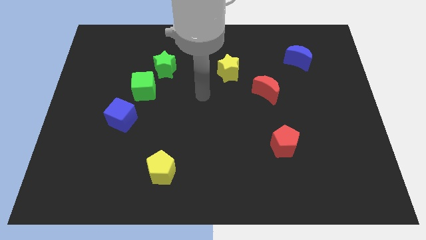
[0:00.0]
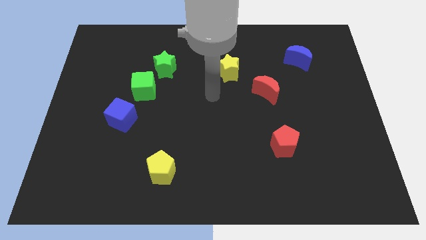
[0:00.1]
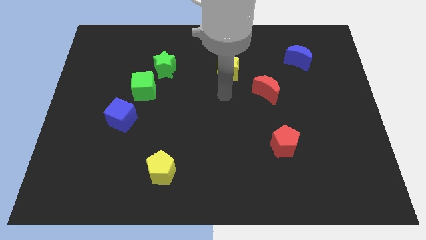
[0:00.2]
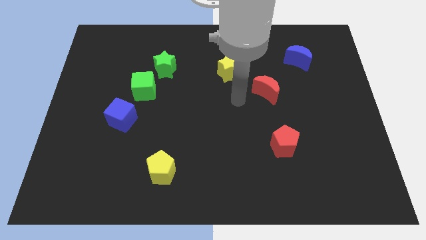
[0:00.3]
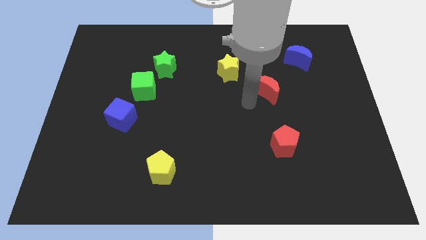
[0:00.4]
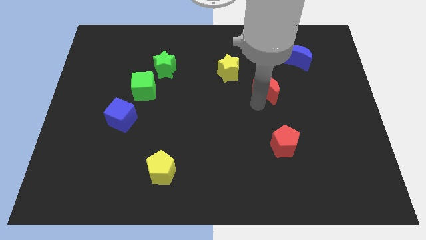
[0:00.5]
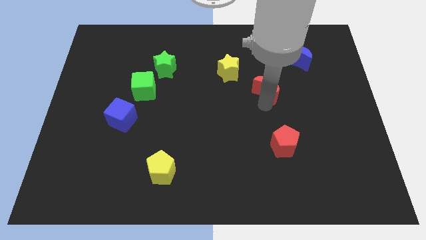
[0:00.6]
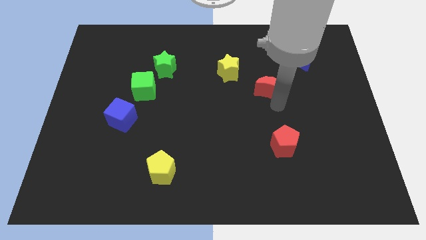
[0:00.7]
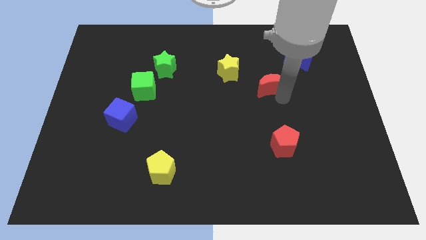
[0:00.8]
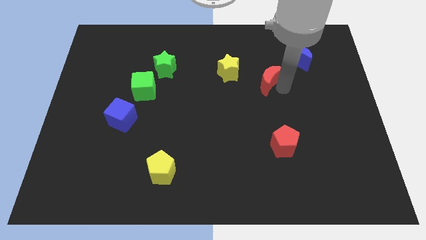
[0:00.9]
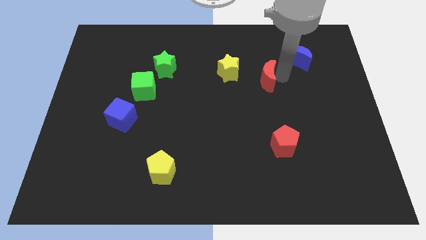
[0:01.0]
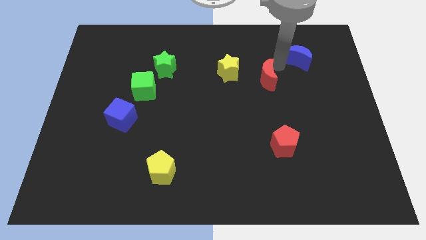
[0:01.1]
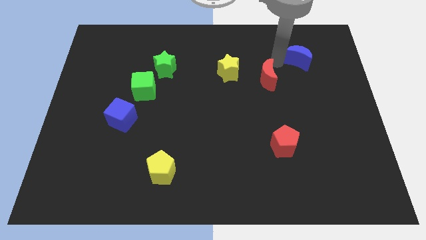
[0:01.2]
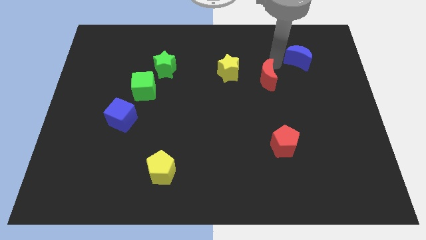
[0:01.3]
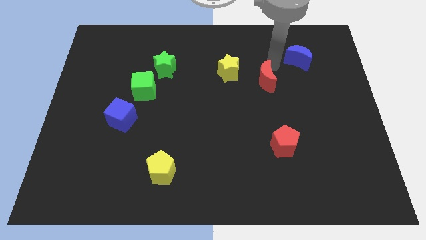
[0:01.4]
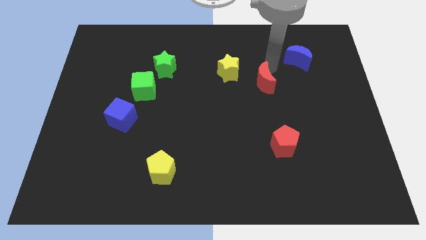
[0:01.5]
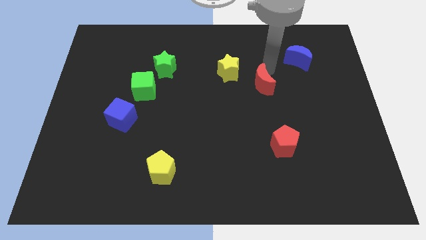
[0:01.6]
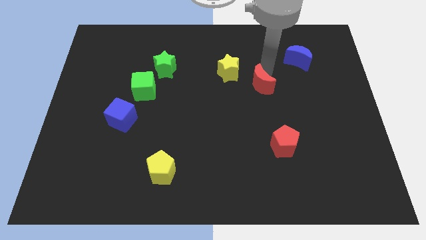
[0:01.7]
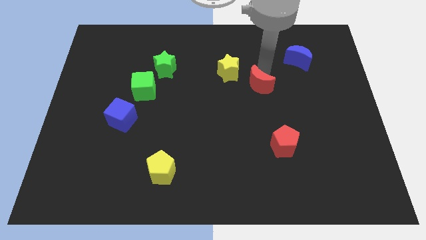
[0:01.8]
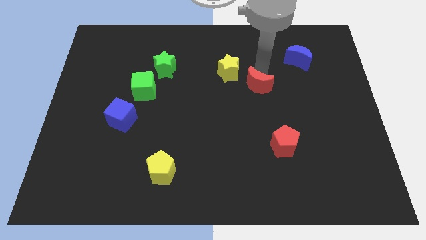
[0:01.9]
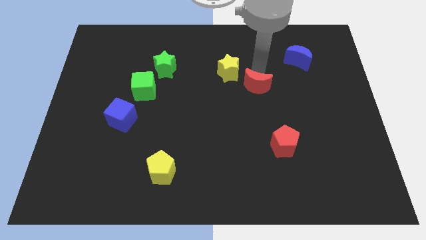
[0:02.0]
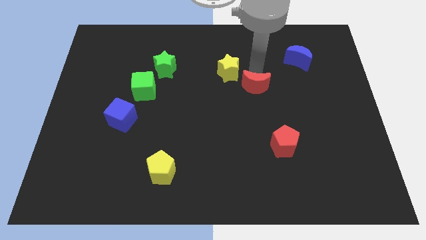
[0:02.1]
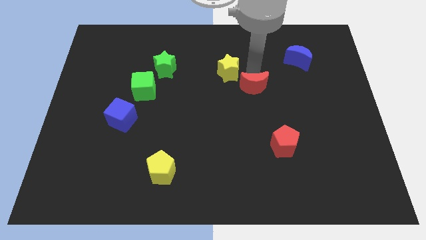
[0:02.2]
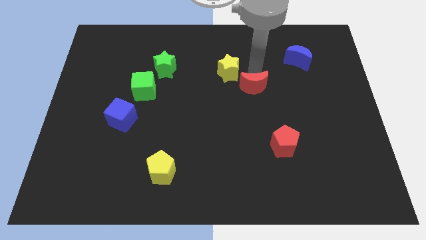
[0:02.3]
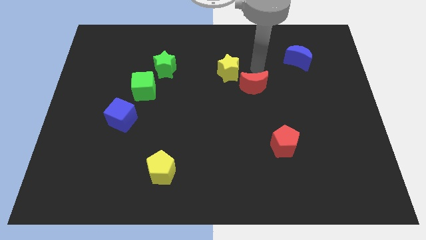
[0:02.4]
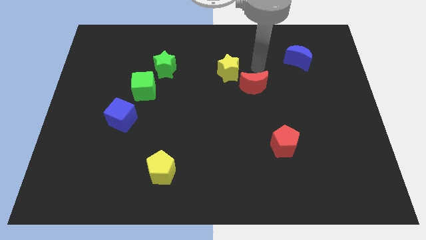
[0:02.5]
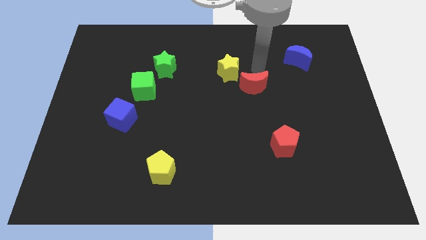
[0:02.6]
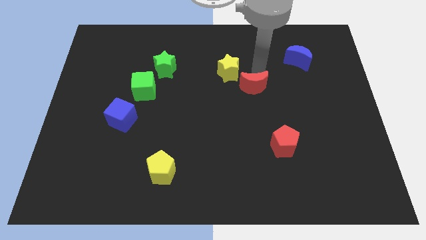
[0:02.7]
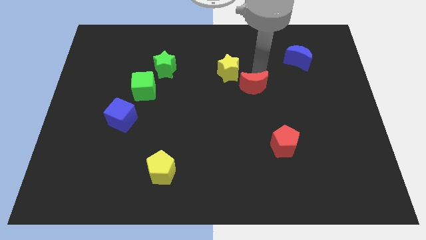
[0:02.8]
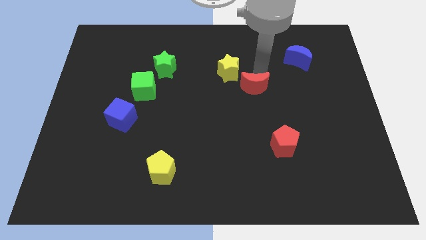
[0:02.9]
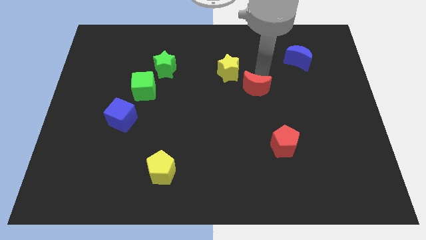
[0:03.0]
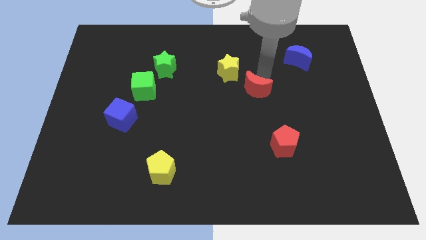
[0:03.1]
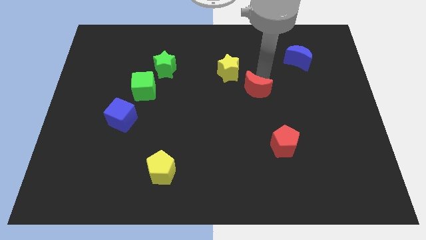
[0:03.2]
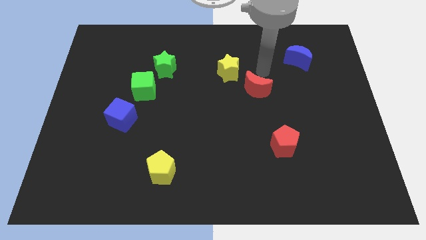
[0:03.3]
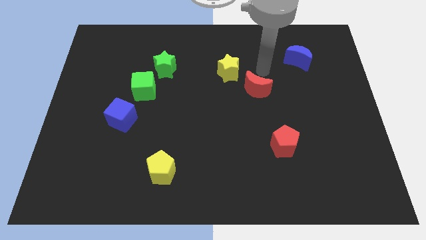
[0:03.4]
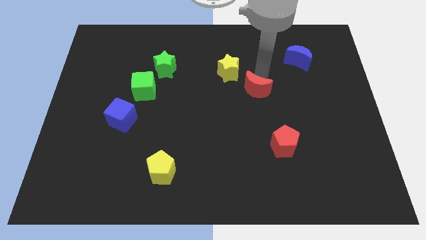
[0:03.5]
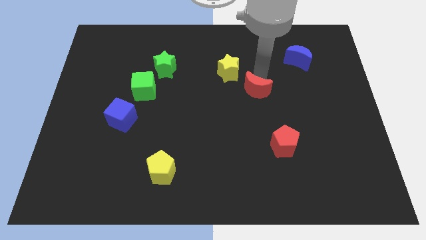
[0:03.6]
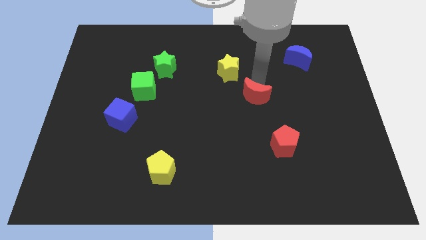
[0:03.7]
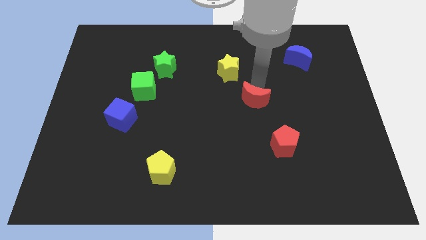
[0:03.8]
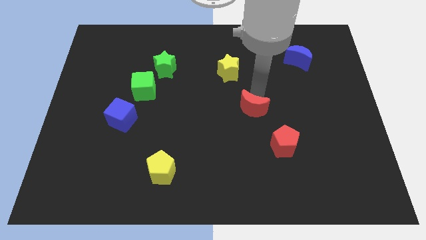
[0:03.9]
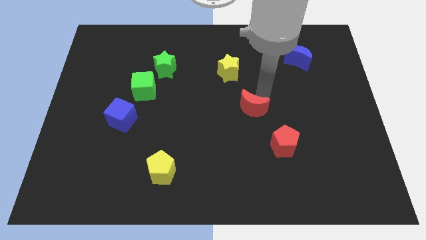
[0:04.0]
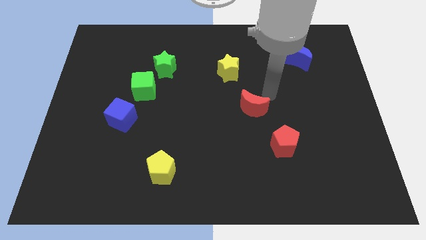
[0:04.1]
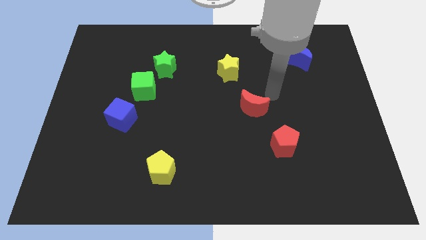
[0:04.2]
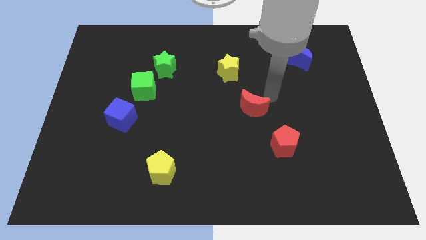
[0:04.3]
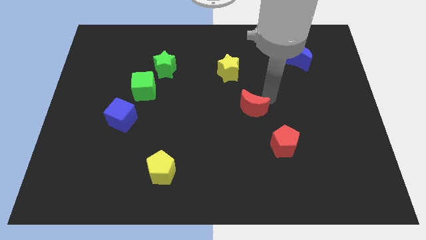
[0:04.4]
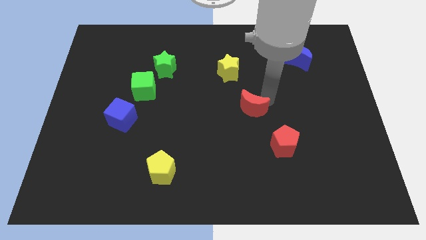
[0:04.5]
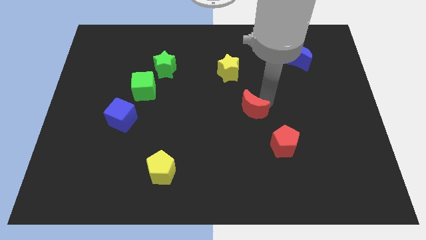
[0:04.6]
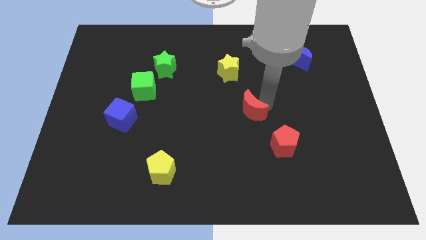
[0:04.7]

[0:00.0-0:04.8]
slightly slide the red moon diagonally down and left

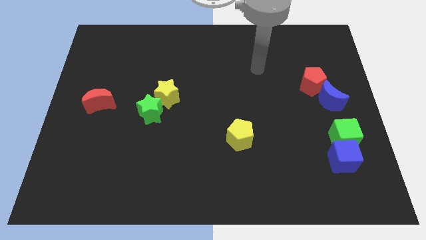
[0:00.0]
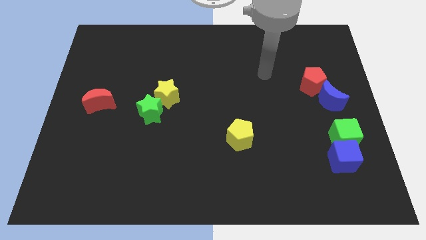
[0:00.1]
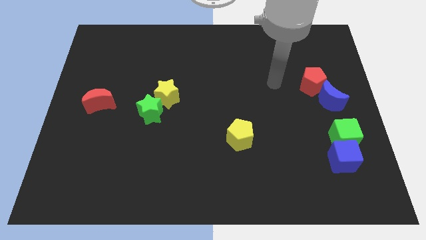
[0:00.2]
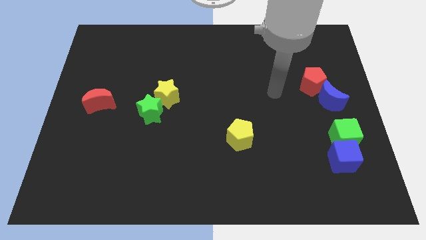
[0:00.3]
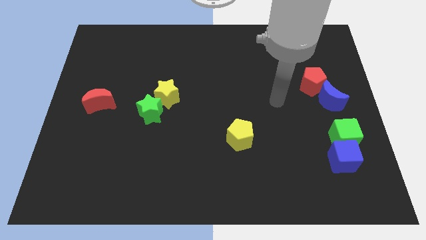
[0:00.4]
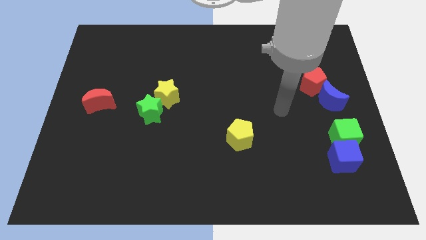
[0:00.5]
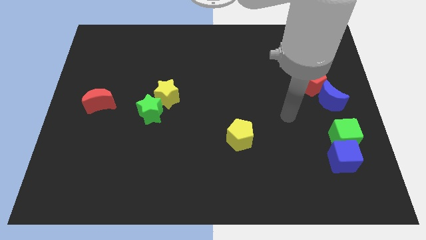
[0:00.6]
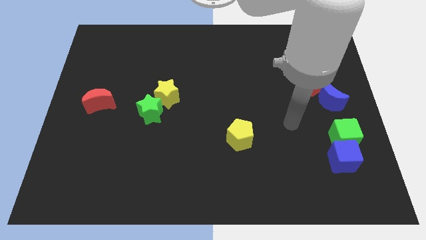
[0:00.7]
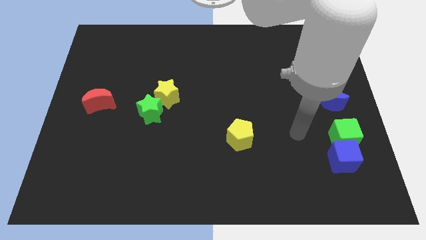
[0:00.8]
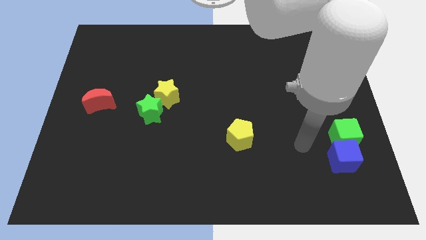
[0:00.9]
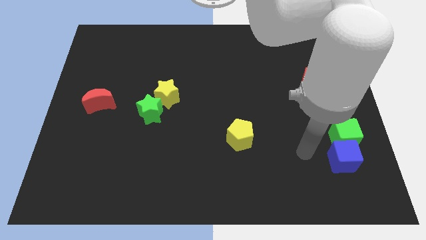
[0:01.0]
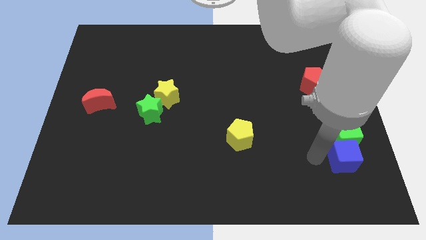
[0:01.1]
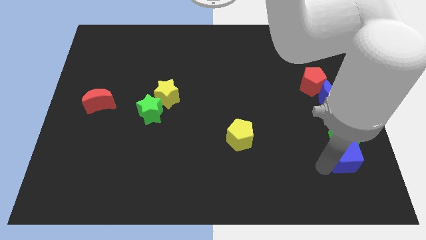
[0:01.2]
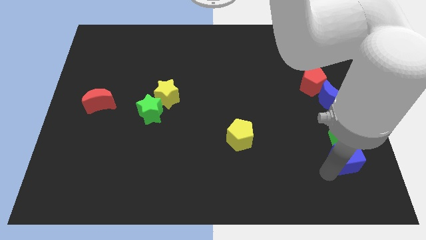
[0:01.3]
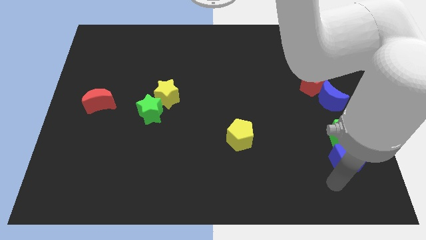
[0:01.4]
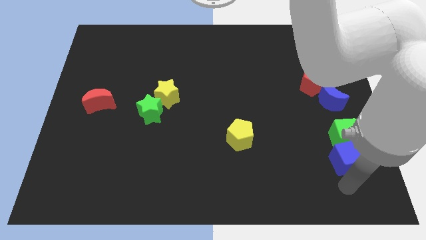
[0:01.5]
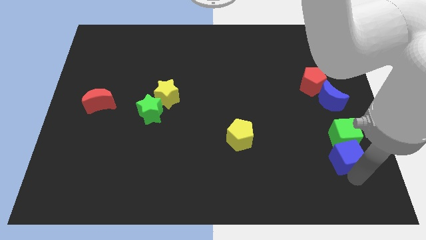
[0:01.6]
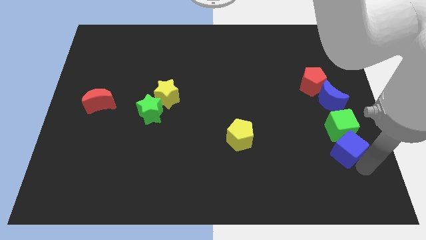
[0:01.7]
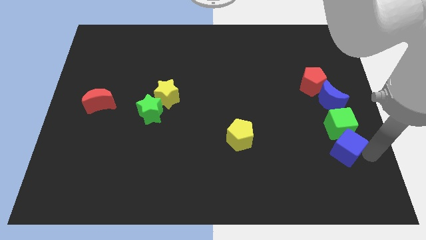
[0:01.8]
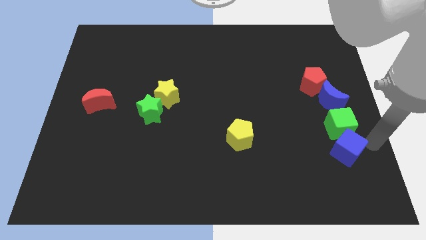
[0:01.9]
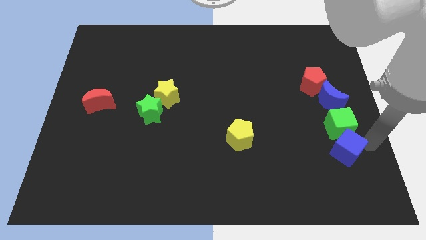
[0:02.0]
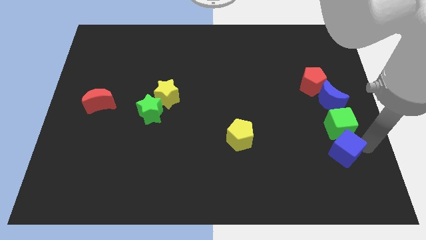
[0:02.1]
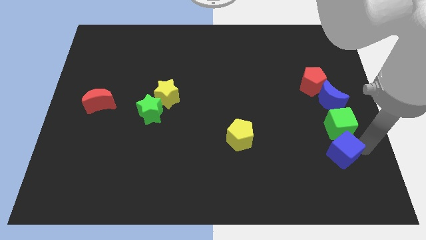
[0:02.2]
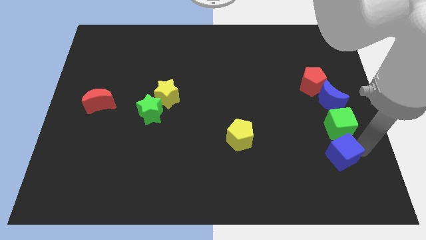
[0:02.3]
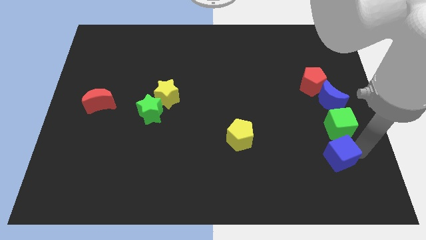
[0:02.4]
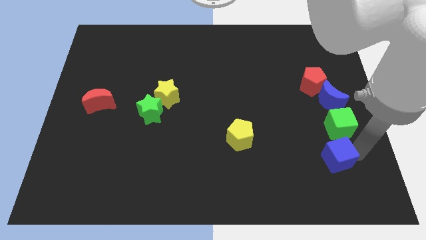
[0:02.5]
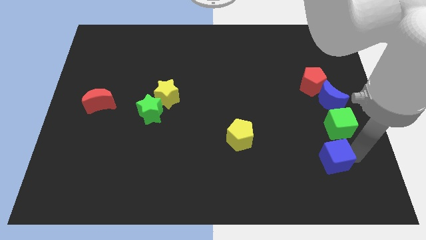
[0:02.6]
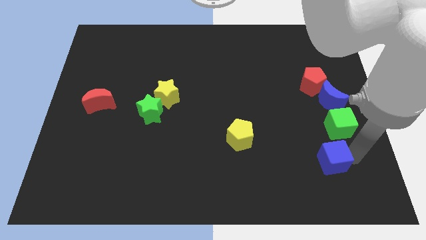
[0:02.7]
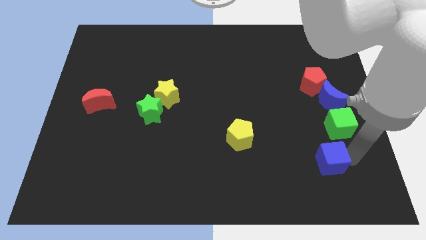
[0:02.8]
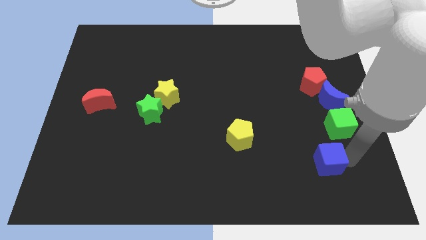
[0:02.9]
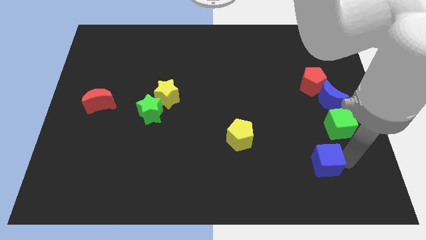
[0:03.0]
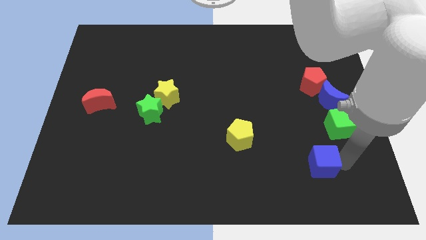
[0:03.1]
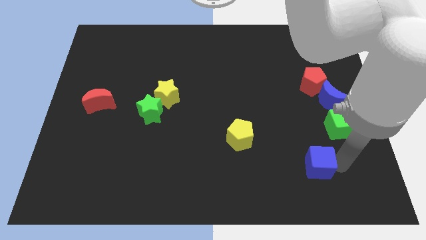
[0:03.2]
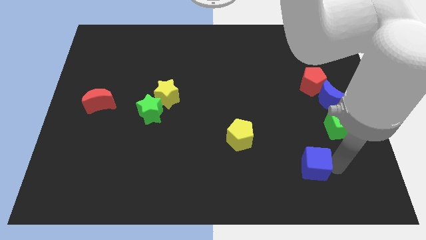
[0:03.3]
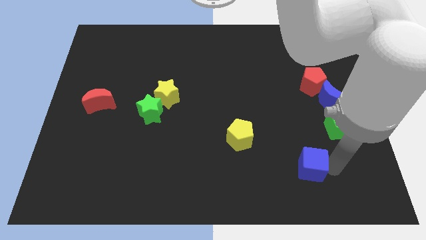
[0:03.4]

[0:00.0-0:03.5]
move the blue cube left a little
